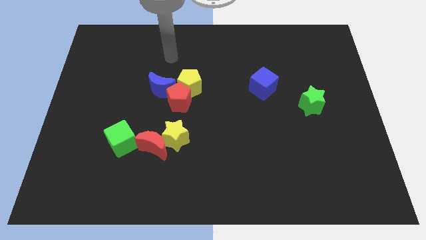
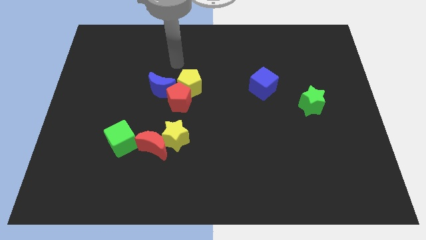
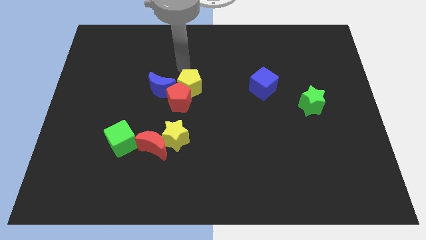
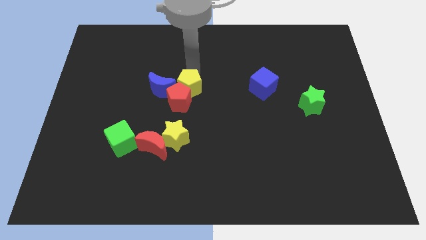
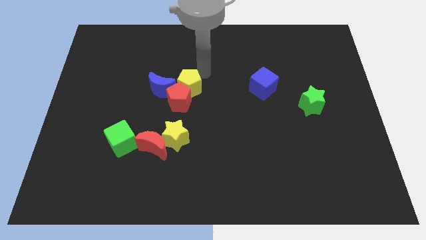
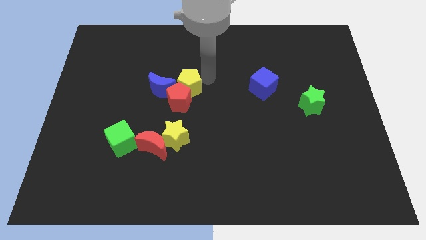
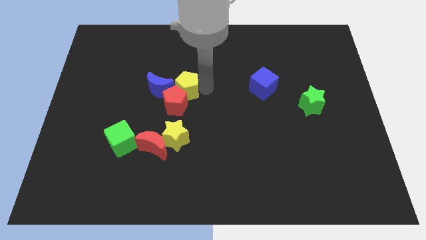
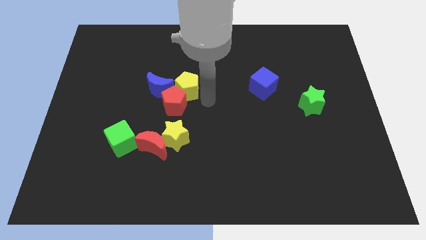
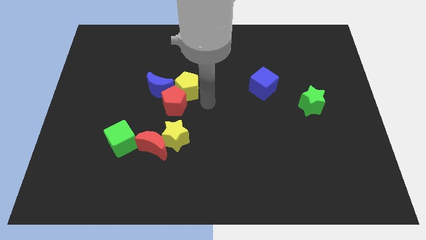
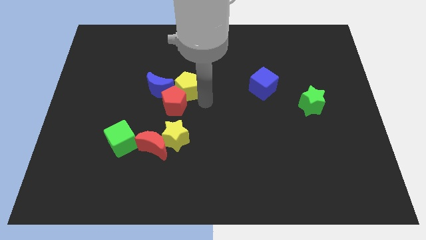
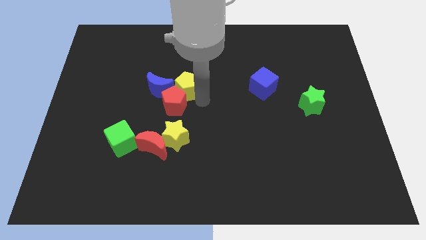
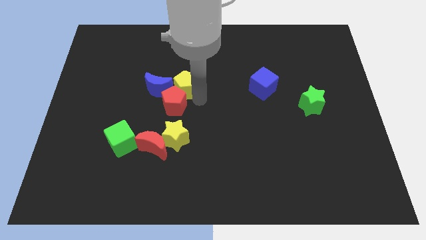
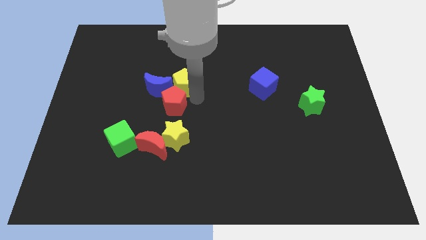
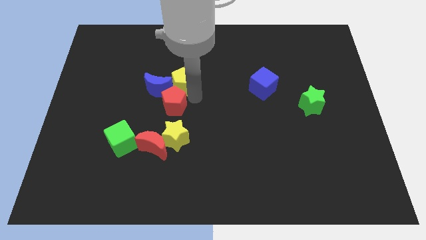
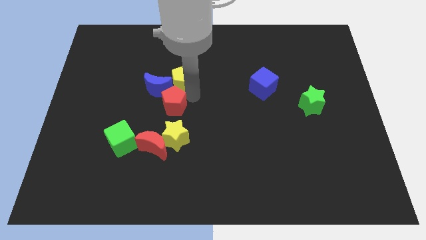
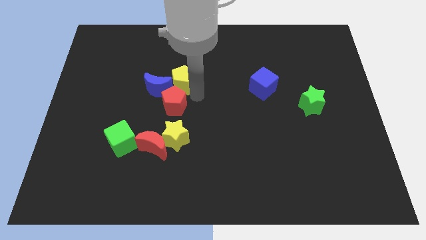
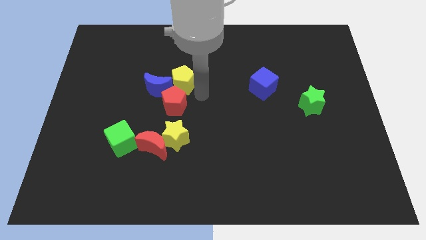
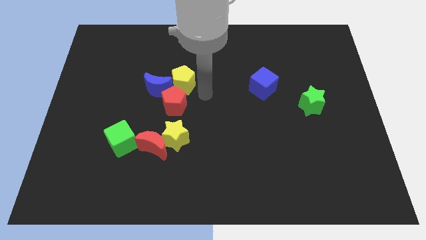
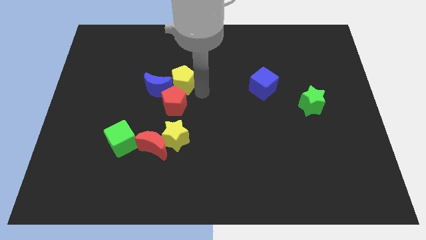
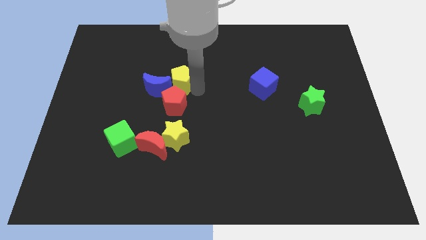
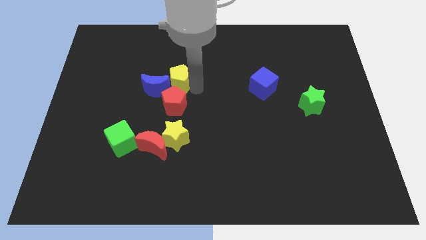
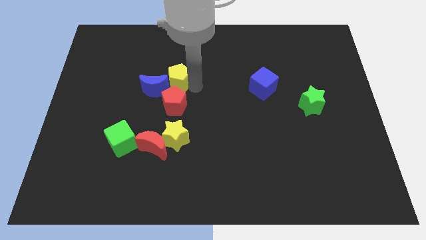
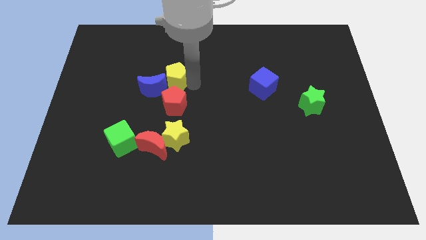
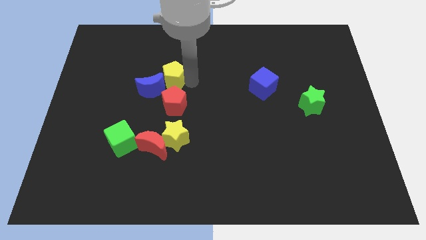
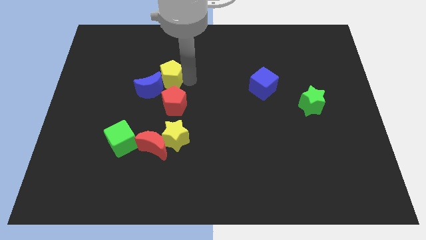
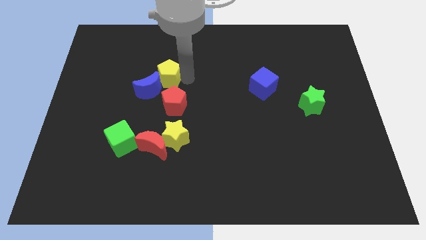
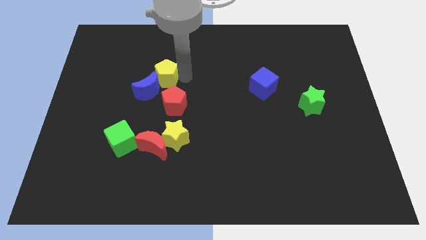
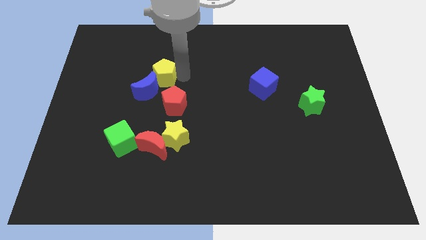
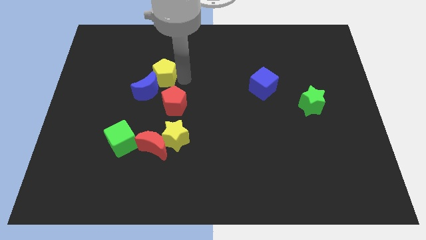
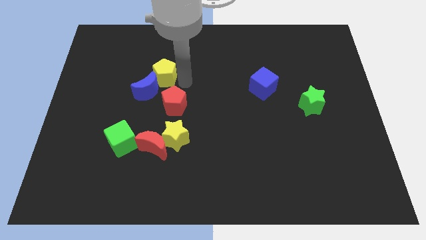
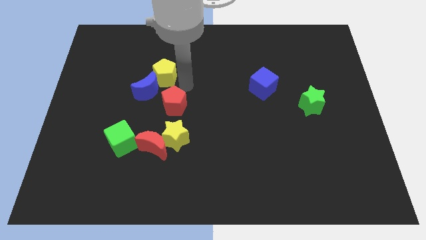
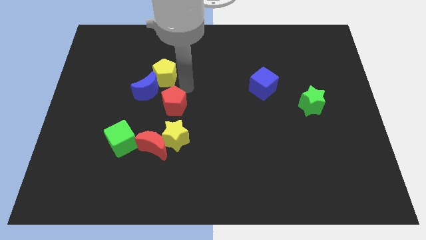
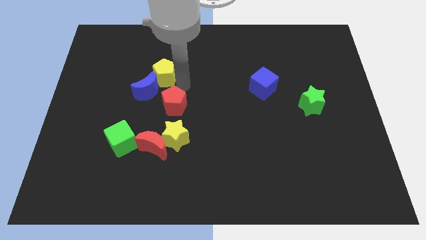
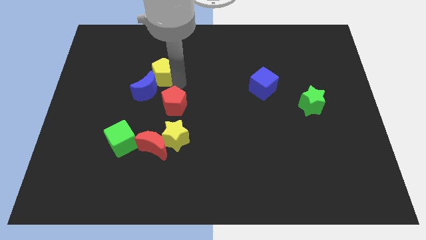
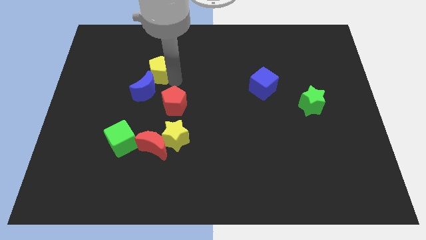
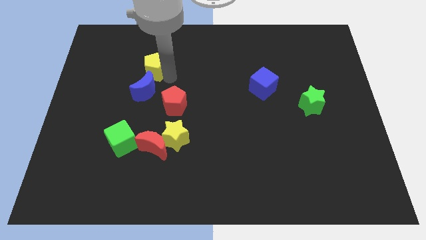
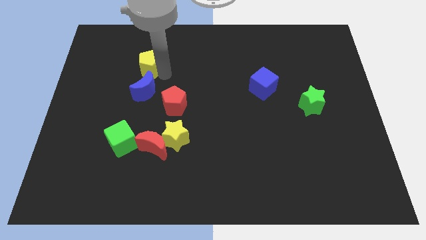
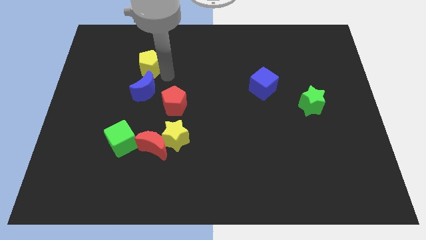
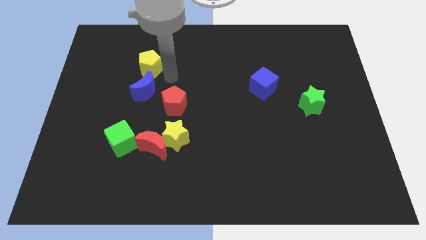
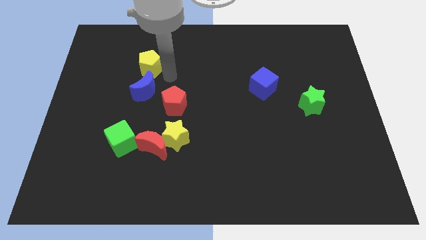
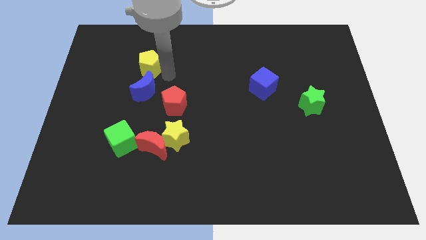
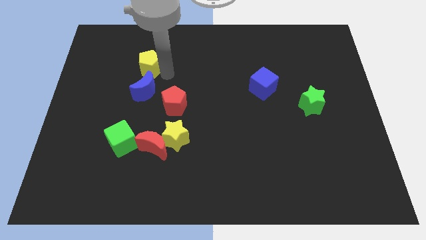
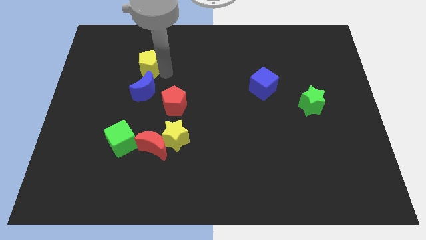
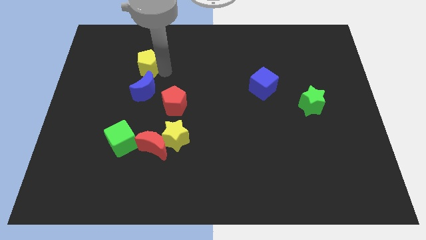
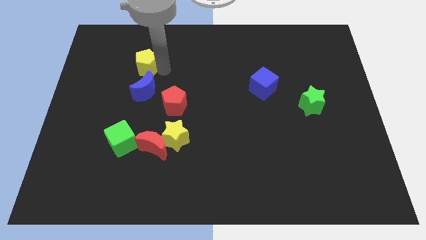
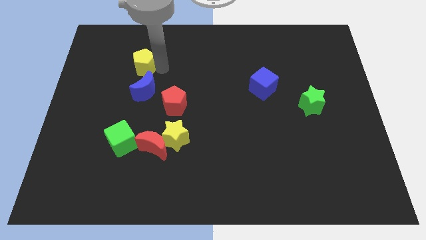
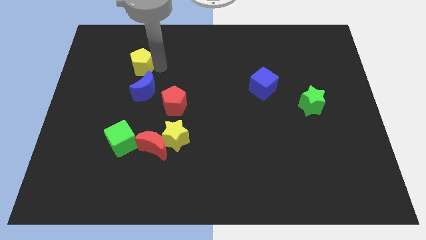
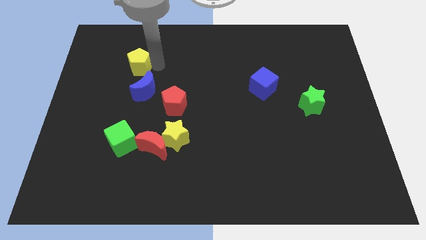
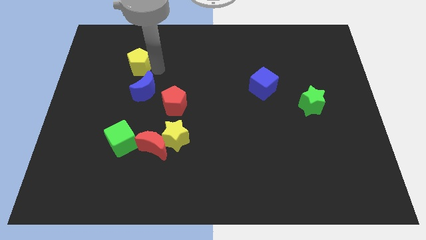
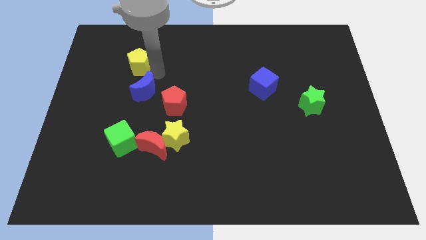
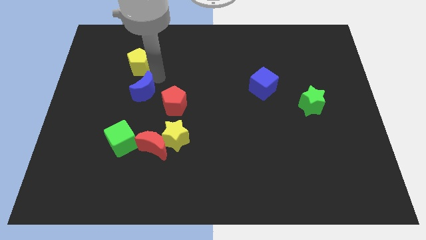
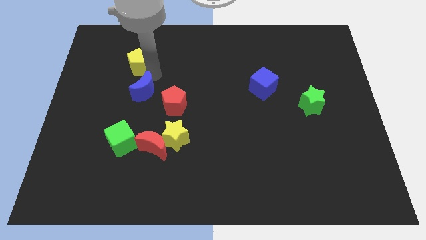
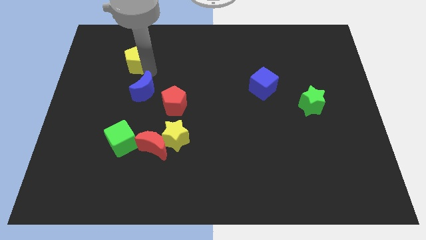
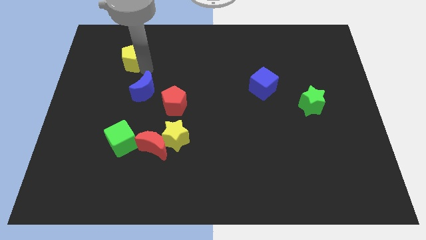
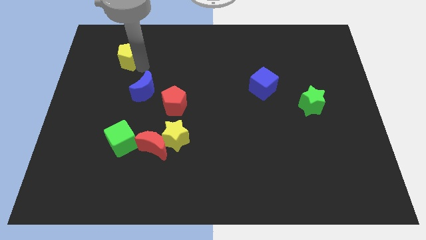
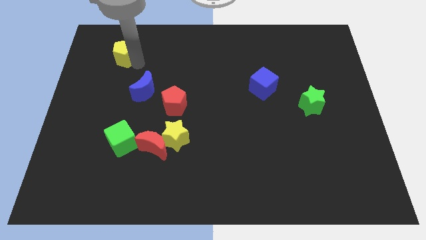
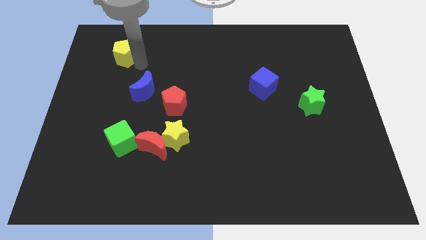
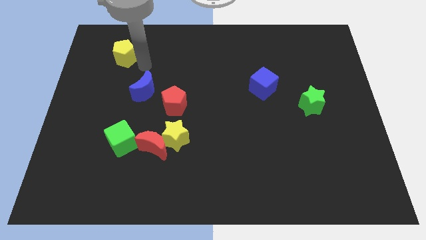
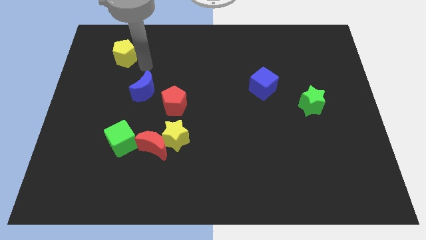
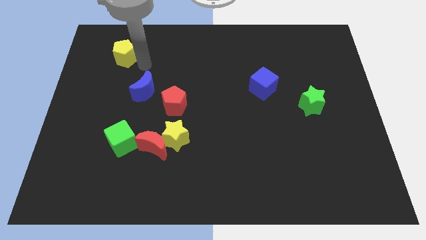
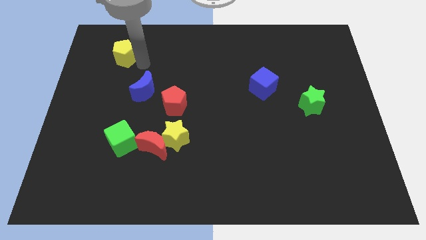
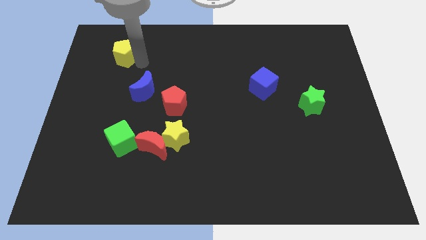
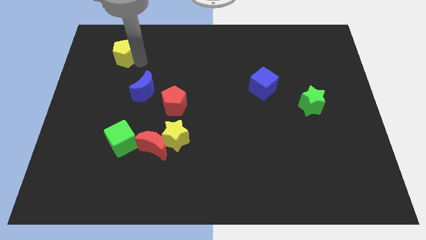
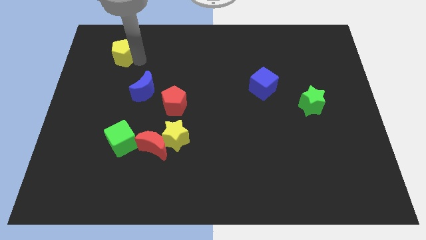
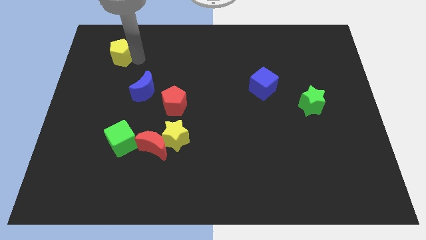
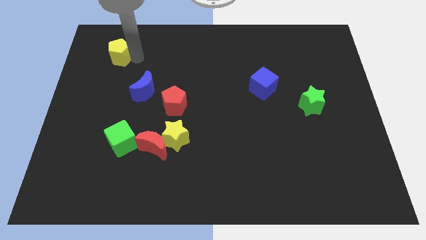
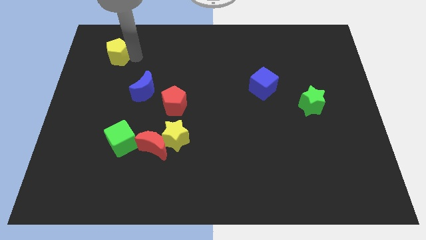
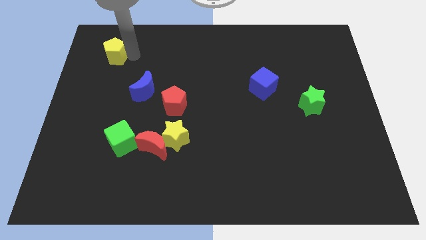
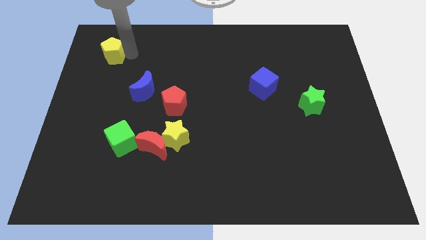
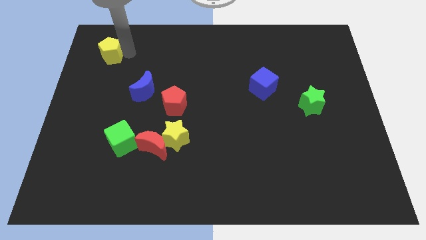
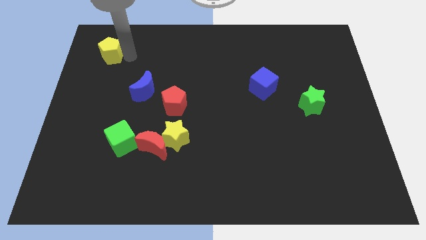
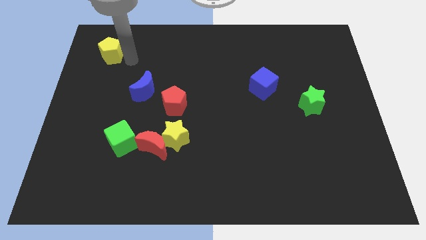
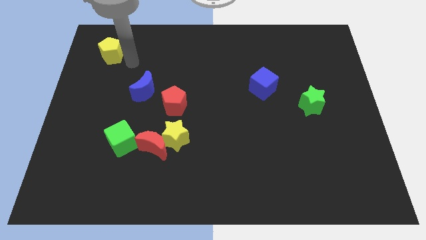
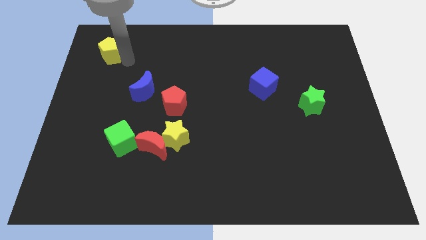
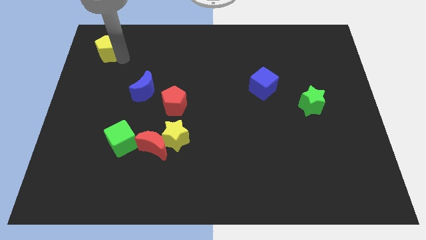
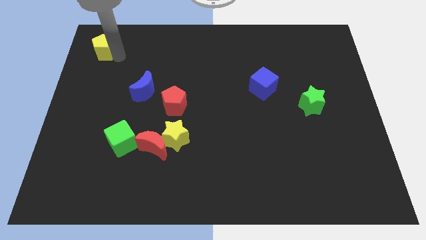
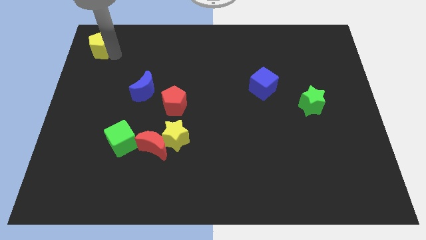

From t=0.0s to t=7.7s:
move the yellow pentagon to the top left corner
